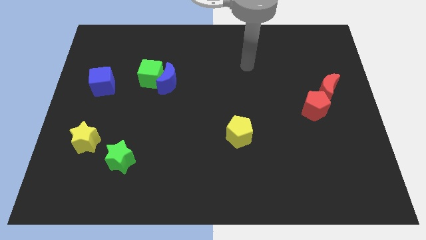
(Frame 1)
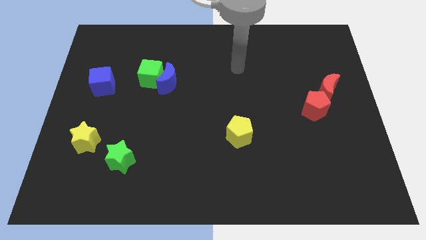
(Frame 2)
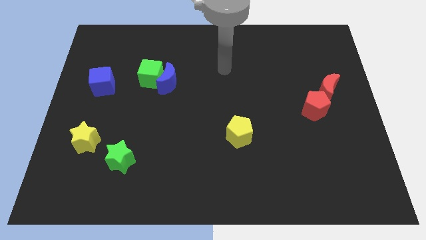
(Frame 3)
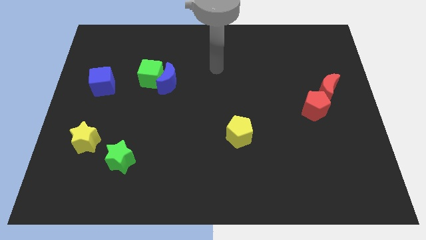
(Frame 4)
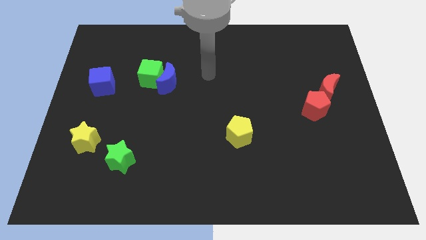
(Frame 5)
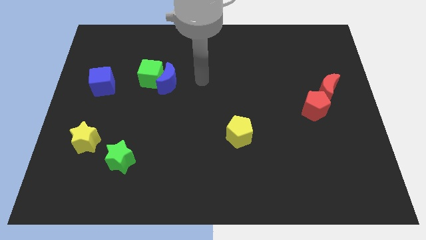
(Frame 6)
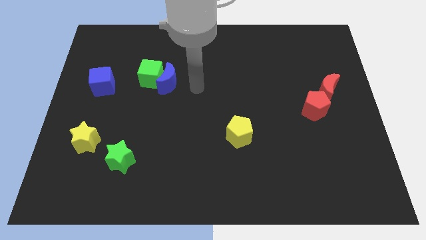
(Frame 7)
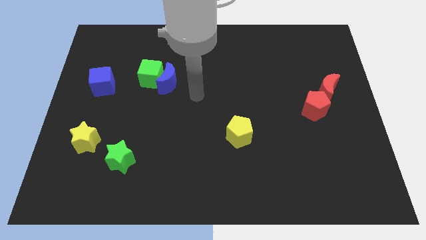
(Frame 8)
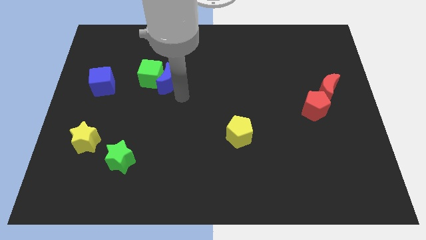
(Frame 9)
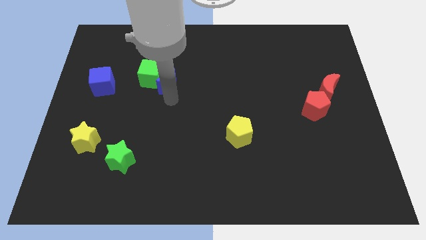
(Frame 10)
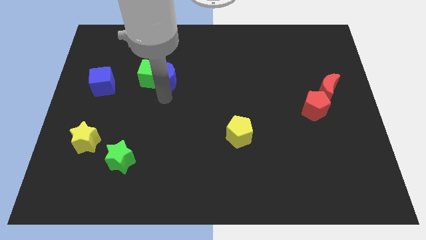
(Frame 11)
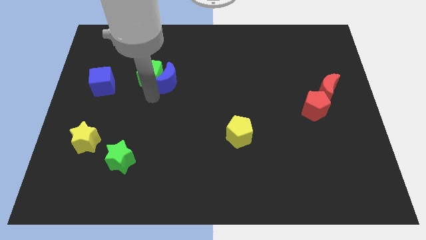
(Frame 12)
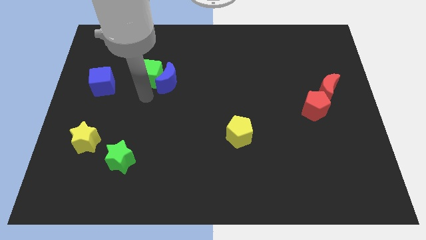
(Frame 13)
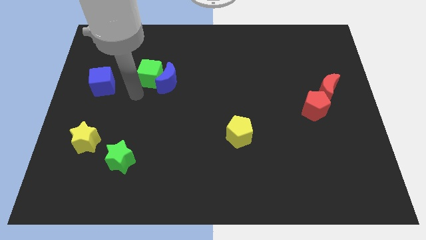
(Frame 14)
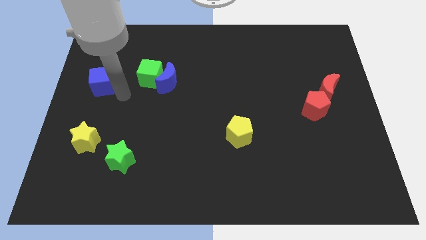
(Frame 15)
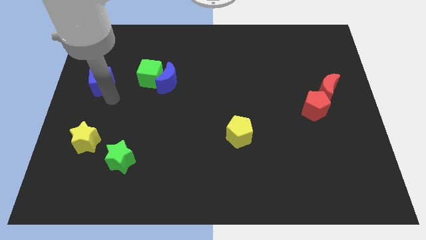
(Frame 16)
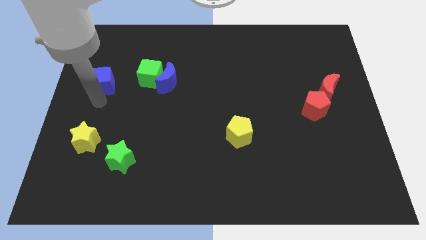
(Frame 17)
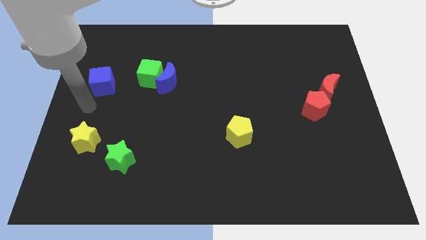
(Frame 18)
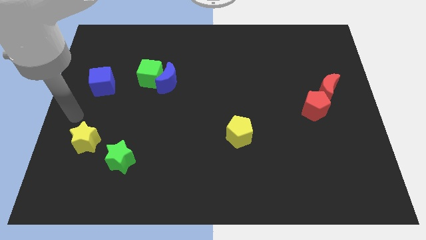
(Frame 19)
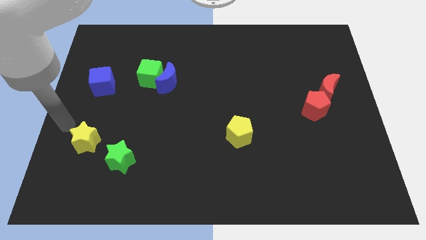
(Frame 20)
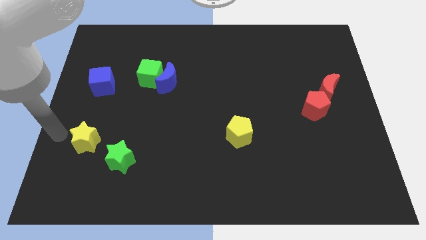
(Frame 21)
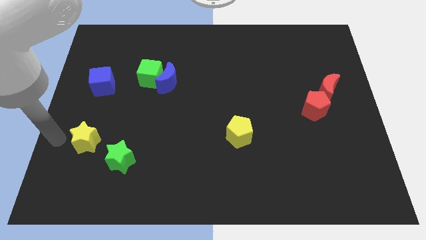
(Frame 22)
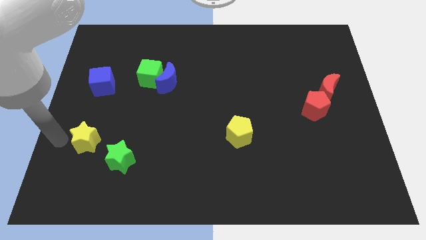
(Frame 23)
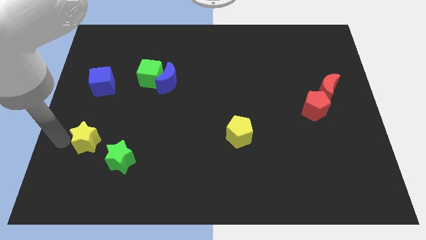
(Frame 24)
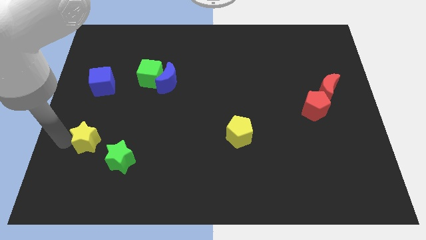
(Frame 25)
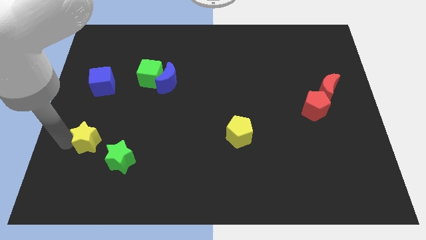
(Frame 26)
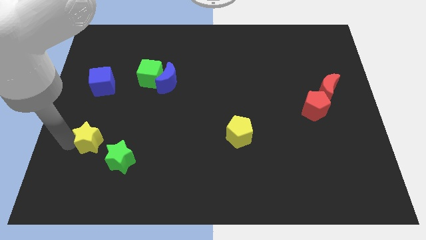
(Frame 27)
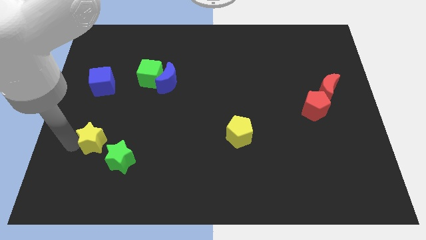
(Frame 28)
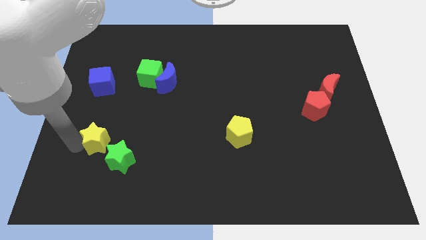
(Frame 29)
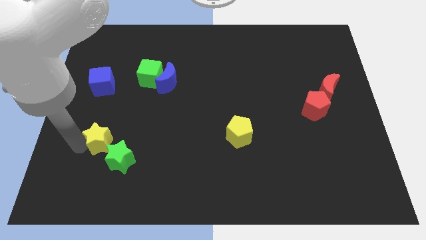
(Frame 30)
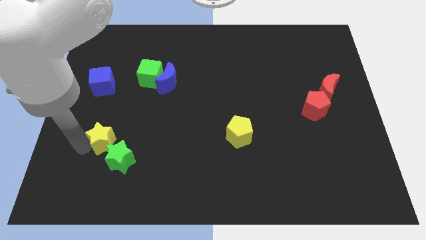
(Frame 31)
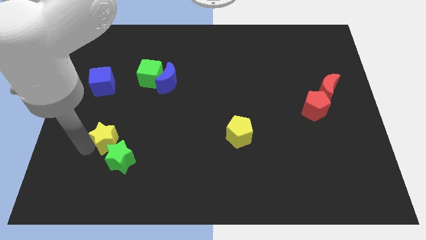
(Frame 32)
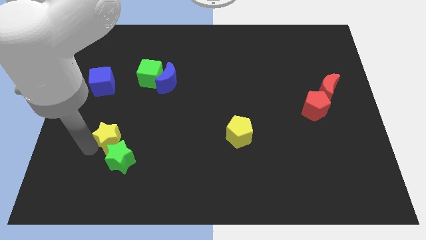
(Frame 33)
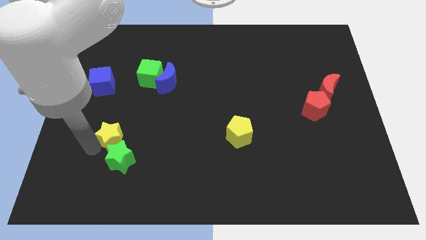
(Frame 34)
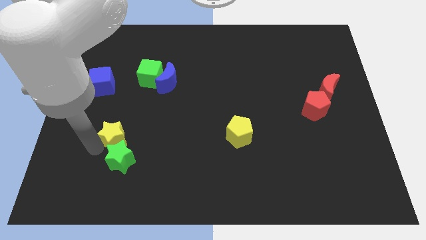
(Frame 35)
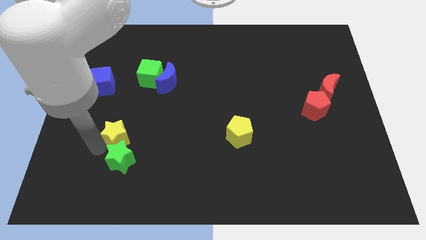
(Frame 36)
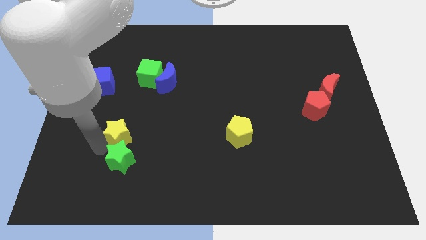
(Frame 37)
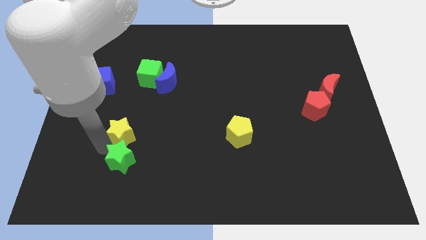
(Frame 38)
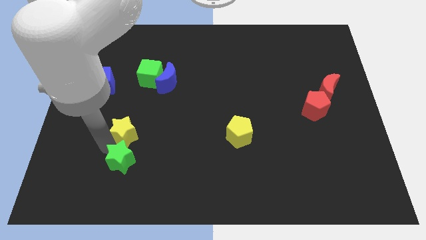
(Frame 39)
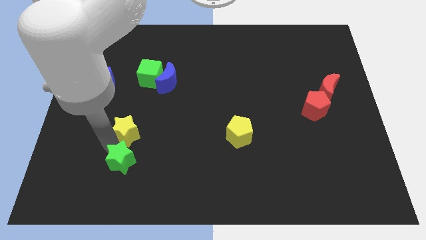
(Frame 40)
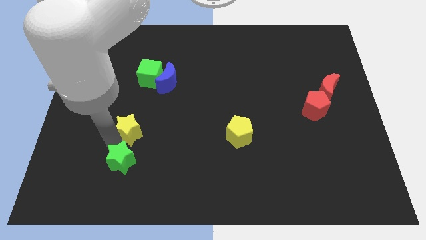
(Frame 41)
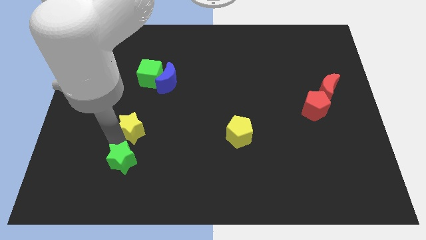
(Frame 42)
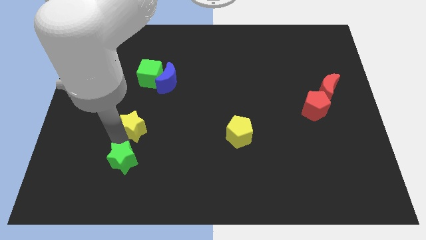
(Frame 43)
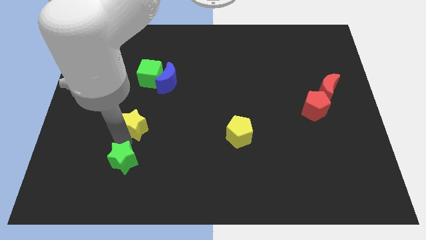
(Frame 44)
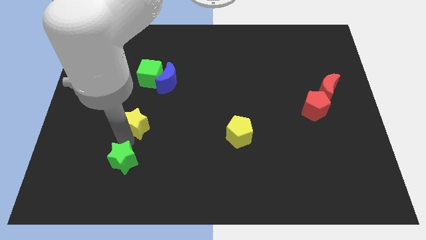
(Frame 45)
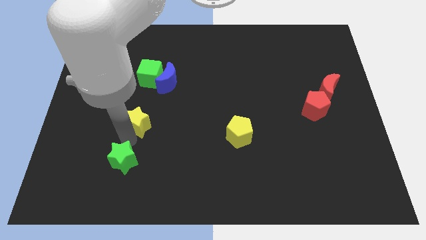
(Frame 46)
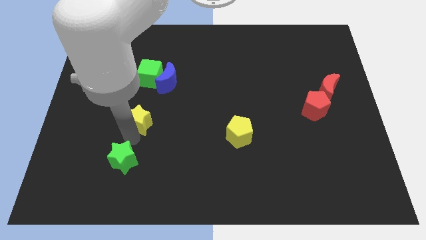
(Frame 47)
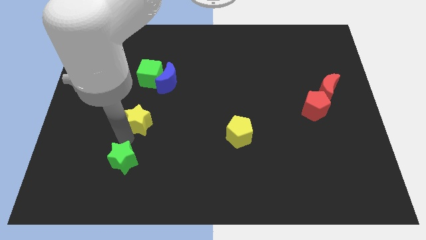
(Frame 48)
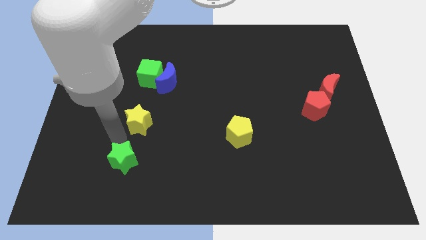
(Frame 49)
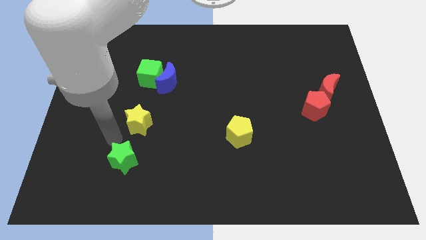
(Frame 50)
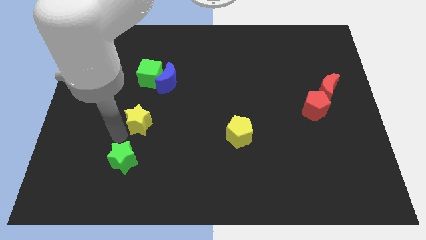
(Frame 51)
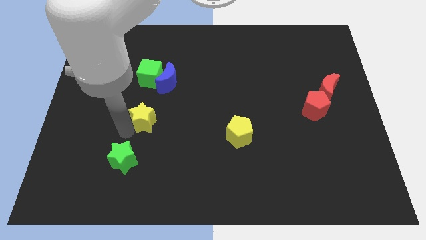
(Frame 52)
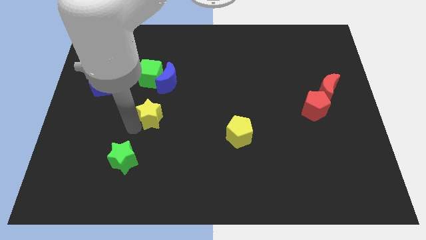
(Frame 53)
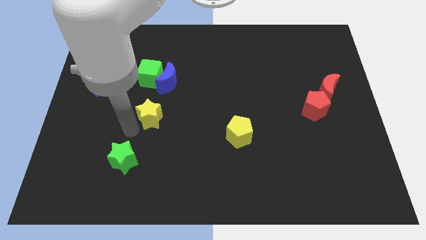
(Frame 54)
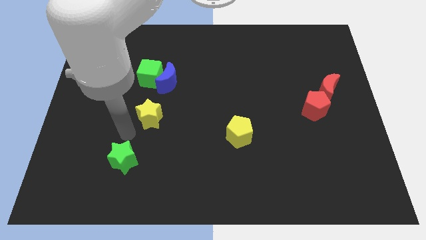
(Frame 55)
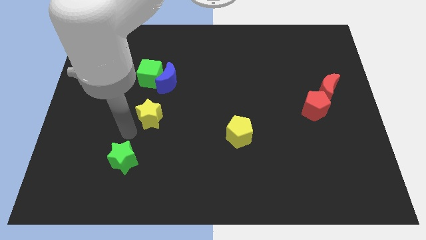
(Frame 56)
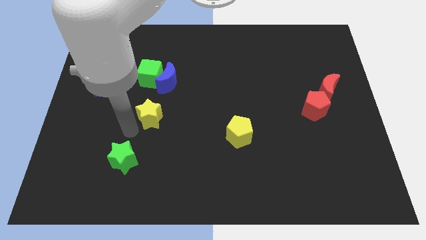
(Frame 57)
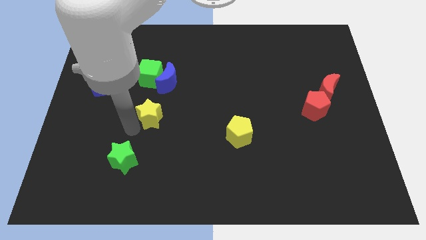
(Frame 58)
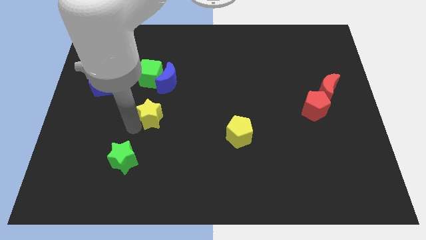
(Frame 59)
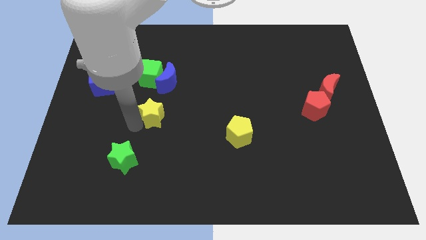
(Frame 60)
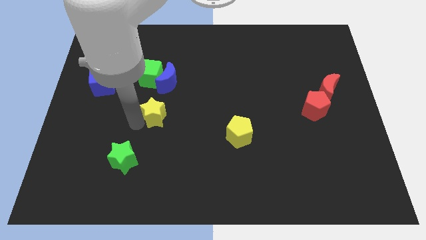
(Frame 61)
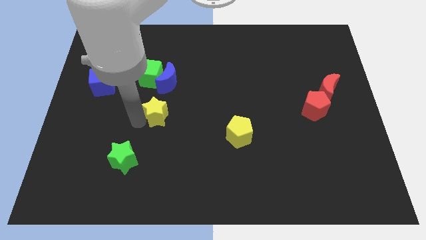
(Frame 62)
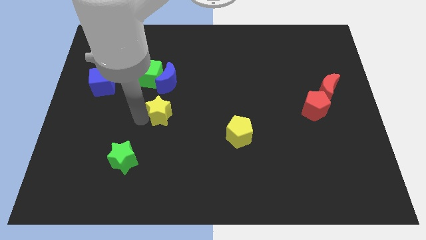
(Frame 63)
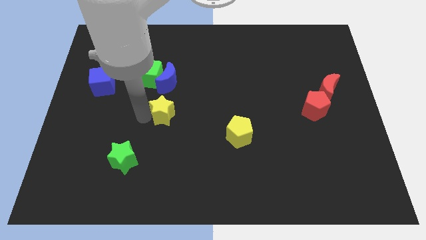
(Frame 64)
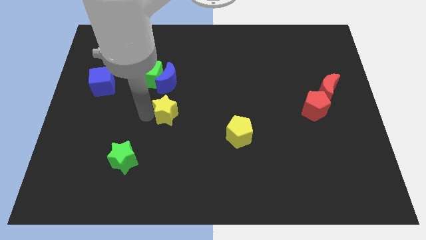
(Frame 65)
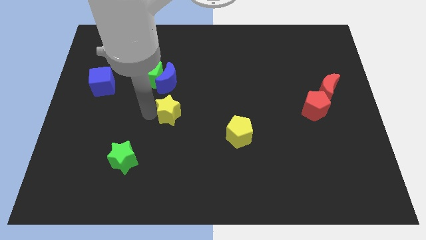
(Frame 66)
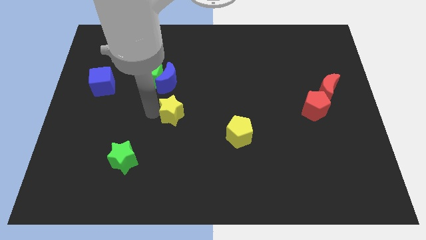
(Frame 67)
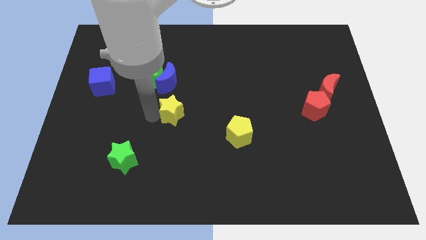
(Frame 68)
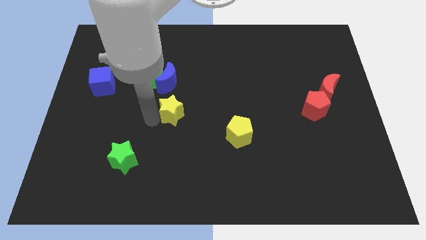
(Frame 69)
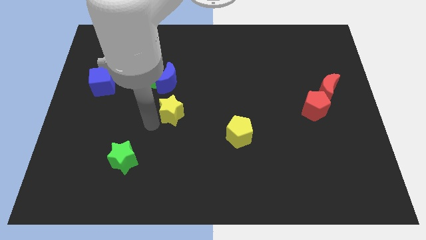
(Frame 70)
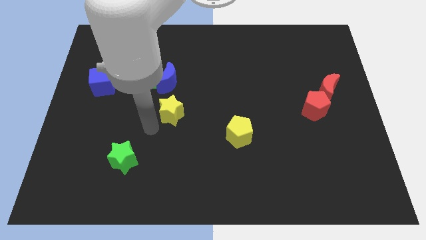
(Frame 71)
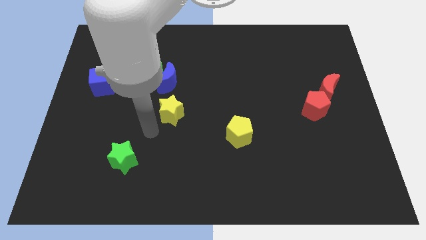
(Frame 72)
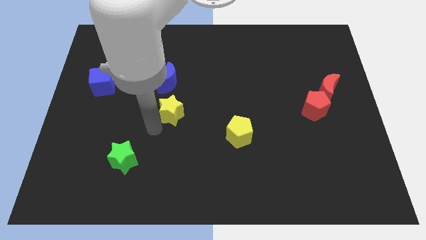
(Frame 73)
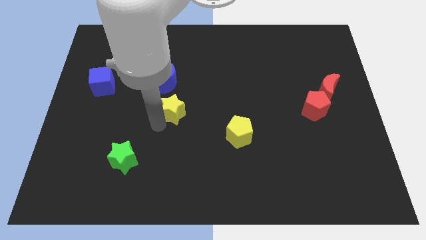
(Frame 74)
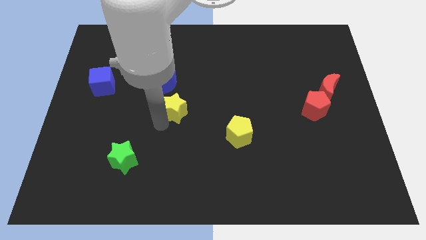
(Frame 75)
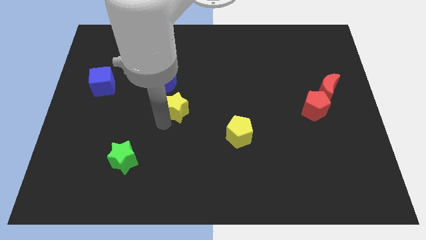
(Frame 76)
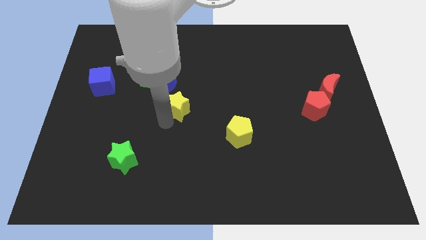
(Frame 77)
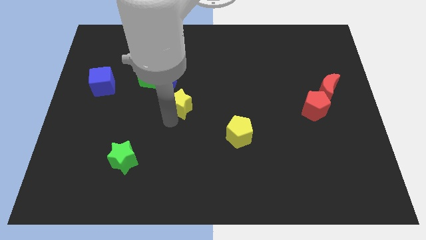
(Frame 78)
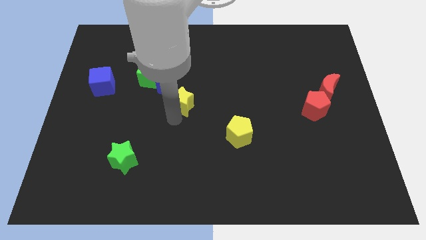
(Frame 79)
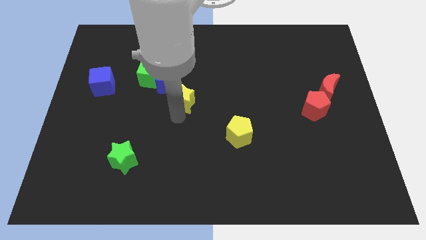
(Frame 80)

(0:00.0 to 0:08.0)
push the yellow star upwards and then right
